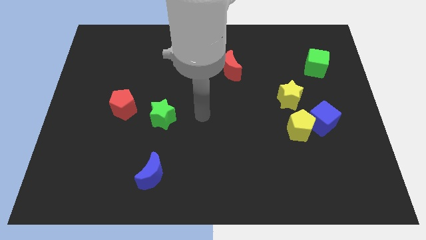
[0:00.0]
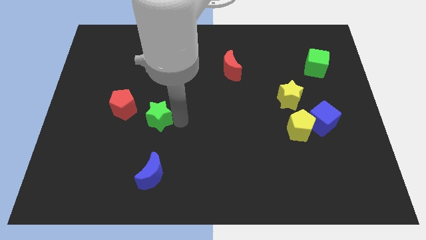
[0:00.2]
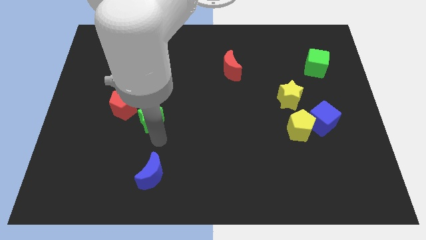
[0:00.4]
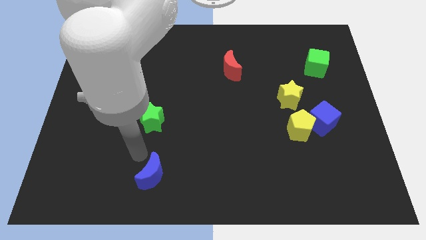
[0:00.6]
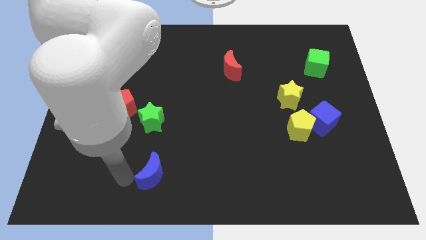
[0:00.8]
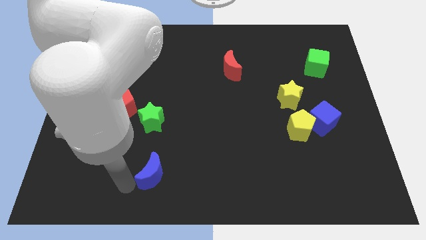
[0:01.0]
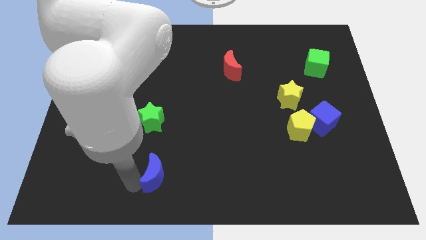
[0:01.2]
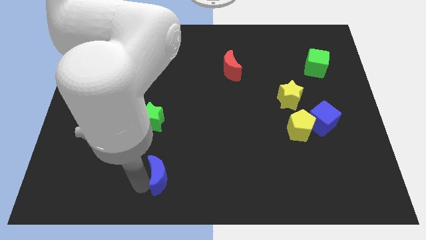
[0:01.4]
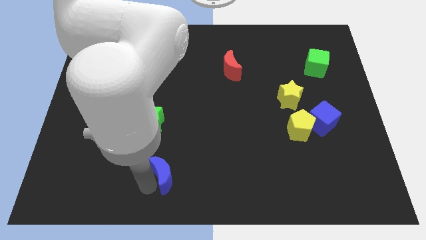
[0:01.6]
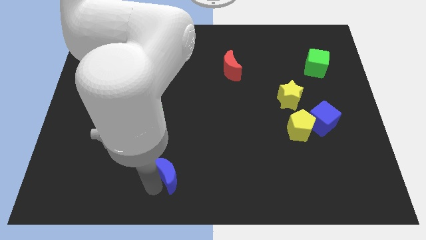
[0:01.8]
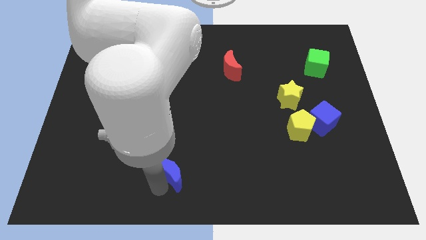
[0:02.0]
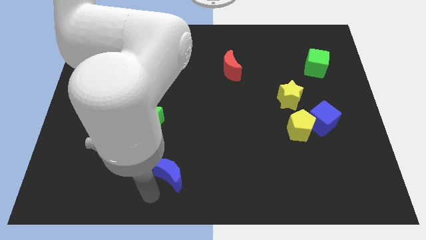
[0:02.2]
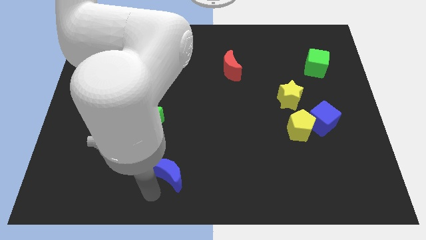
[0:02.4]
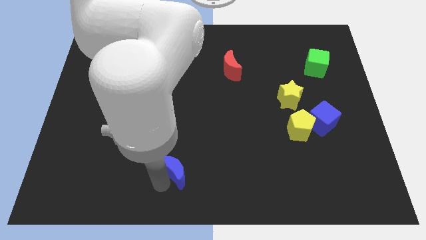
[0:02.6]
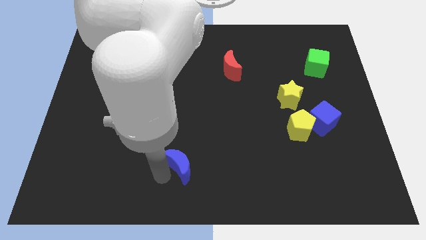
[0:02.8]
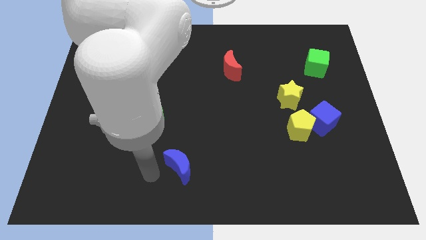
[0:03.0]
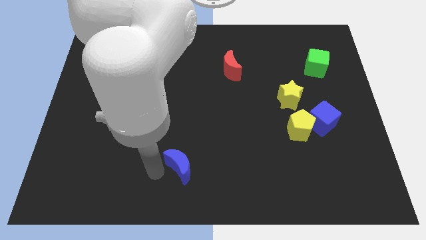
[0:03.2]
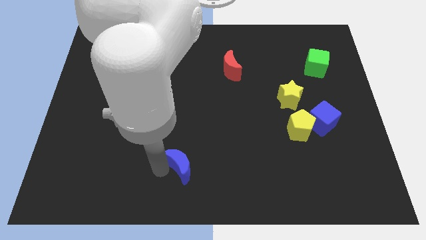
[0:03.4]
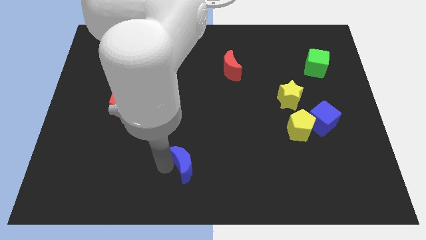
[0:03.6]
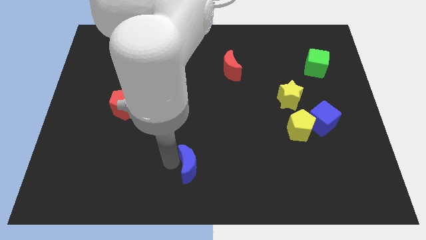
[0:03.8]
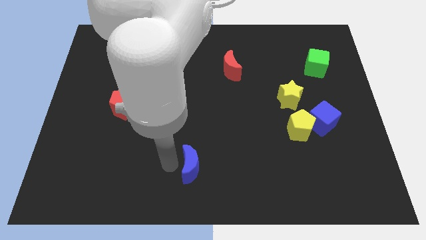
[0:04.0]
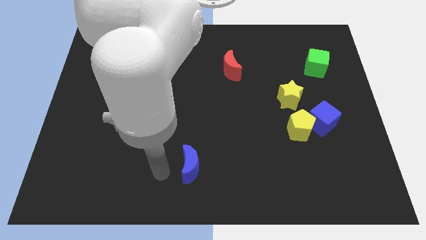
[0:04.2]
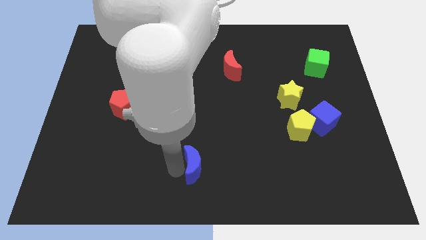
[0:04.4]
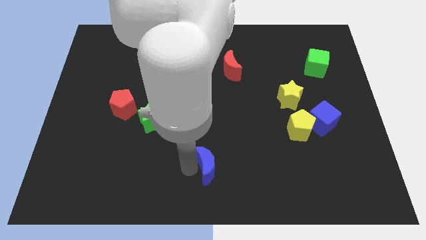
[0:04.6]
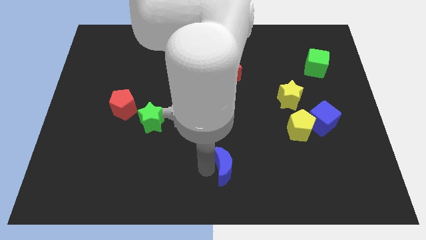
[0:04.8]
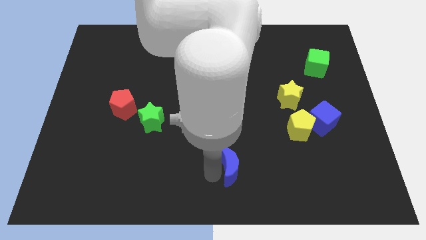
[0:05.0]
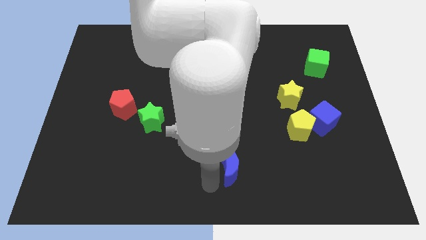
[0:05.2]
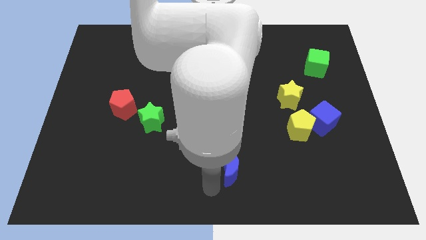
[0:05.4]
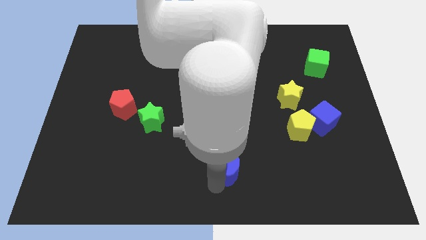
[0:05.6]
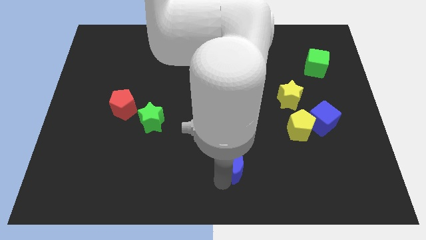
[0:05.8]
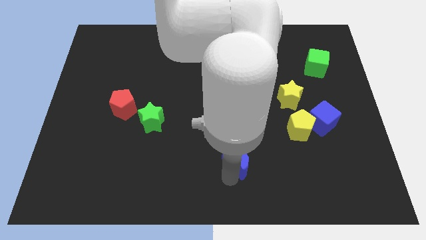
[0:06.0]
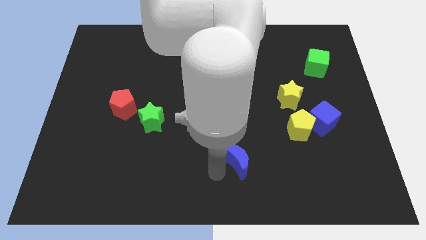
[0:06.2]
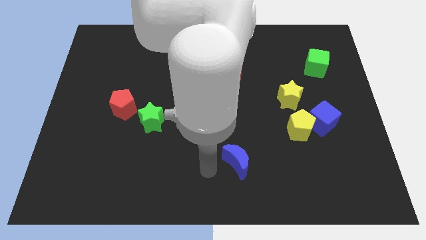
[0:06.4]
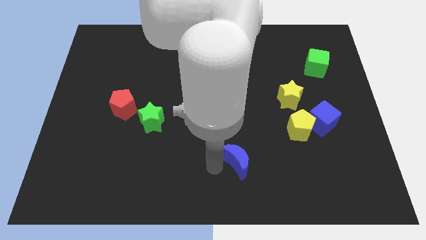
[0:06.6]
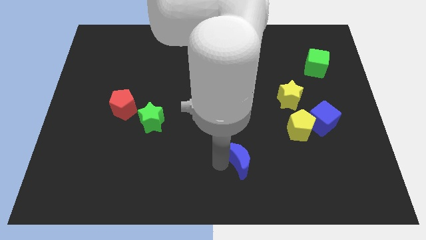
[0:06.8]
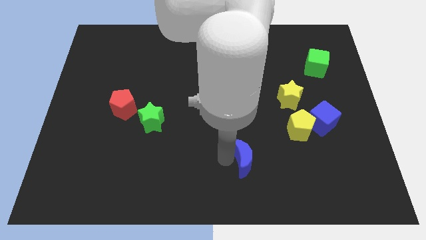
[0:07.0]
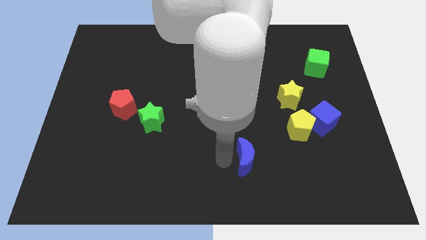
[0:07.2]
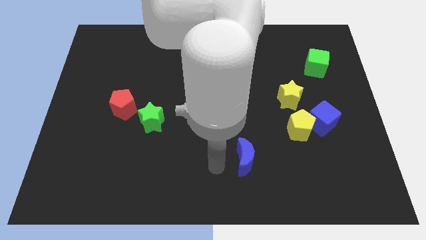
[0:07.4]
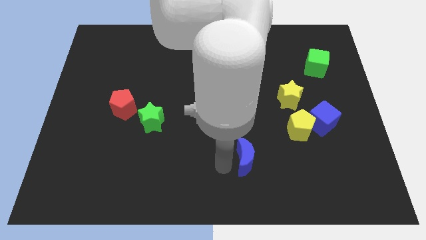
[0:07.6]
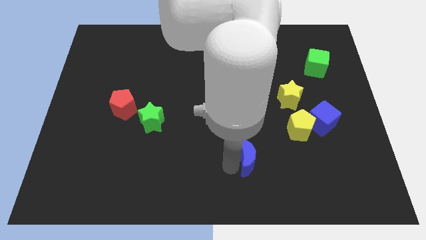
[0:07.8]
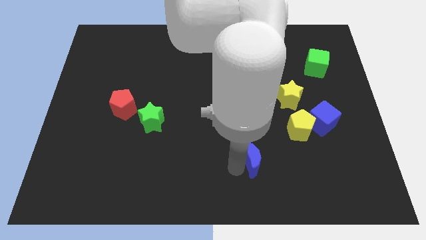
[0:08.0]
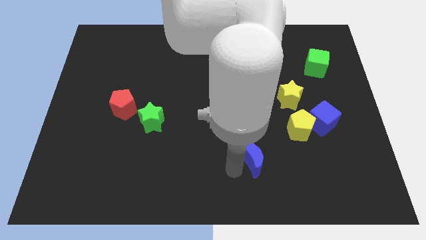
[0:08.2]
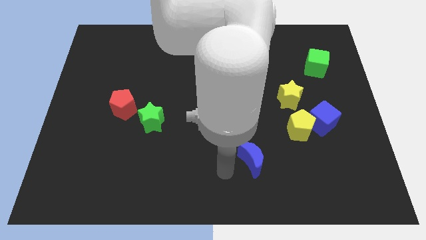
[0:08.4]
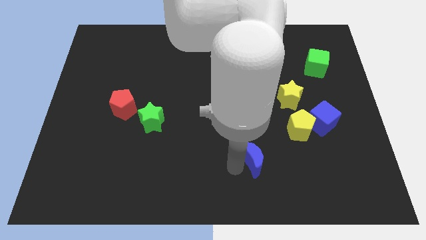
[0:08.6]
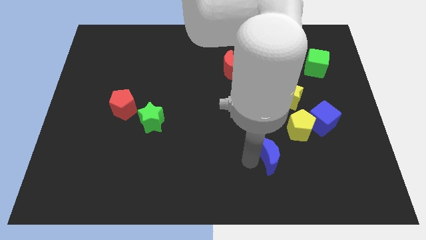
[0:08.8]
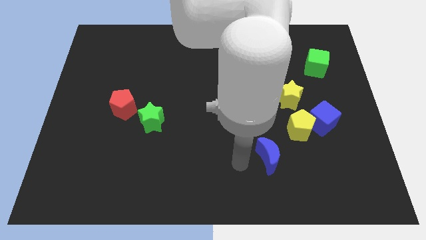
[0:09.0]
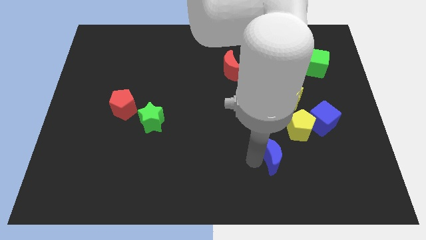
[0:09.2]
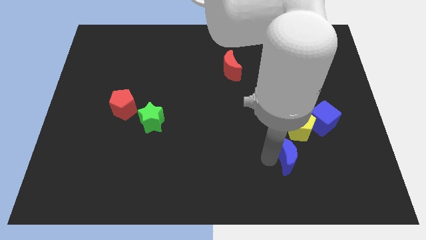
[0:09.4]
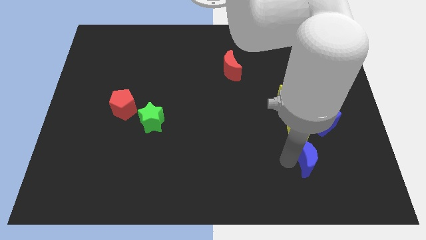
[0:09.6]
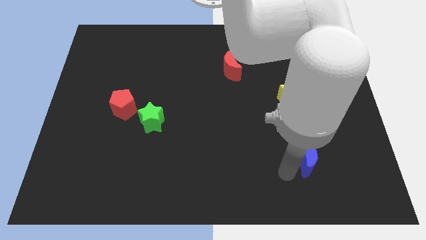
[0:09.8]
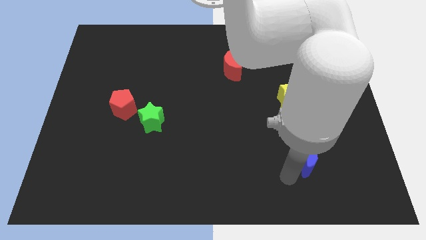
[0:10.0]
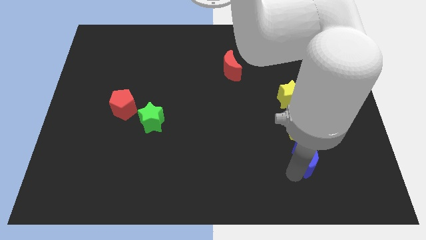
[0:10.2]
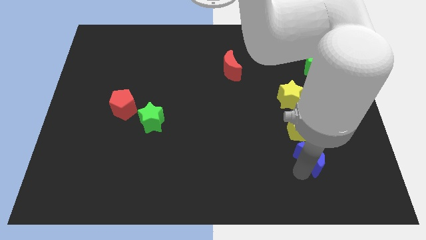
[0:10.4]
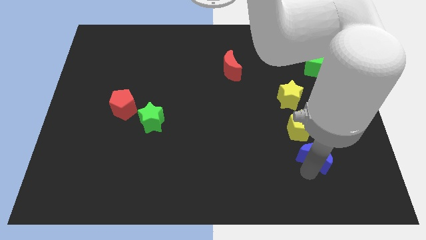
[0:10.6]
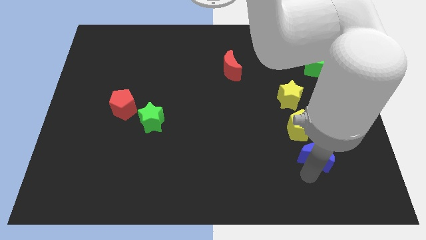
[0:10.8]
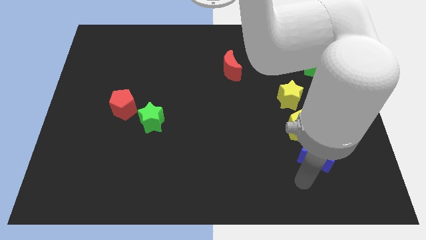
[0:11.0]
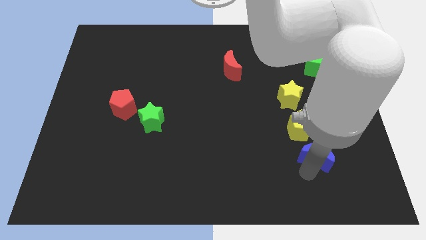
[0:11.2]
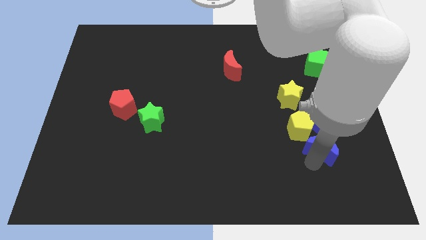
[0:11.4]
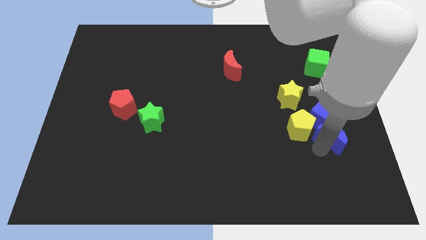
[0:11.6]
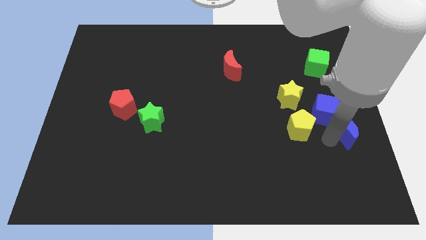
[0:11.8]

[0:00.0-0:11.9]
slide the blue moon to the right side of the board

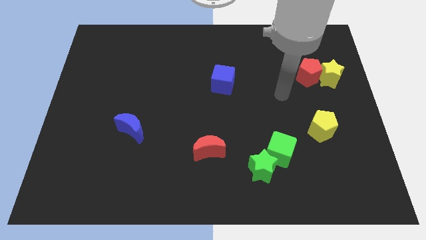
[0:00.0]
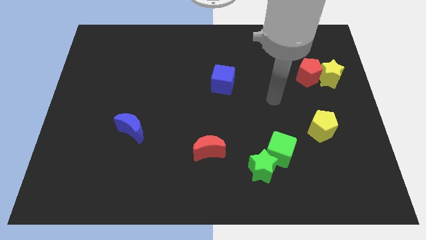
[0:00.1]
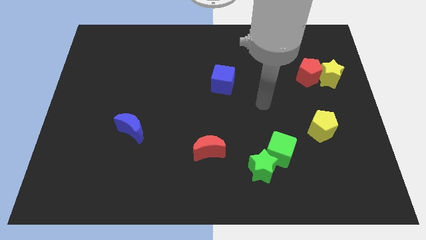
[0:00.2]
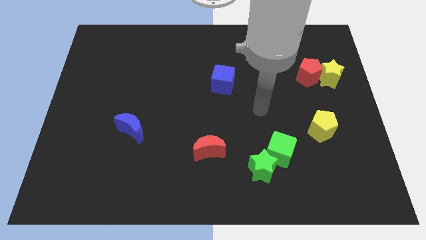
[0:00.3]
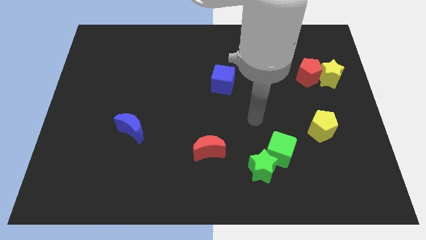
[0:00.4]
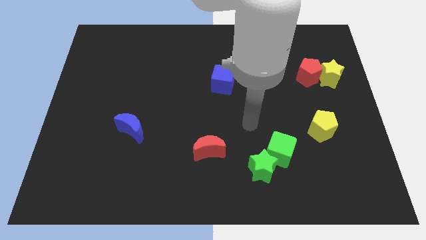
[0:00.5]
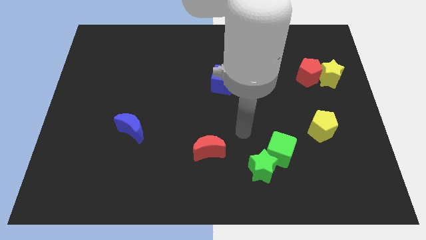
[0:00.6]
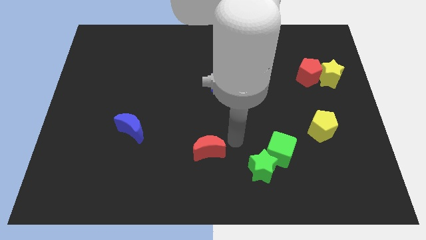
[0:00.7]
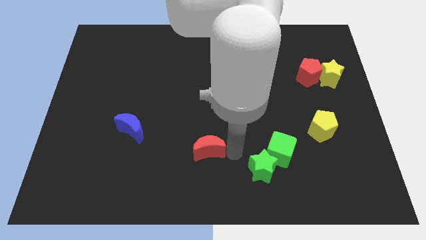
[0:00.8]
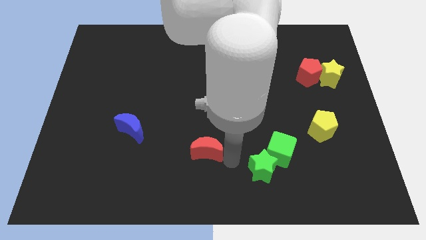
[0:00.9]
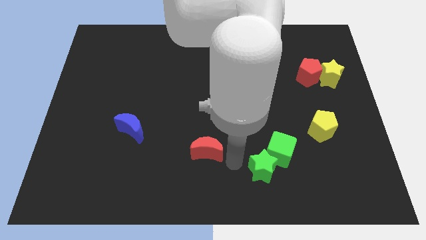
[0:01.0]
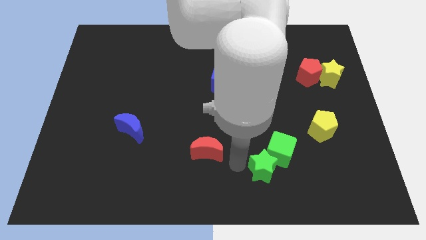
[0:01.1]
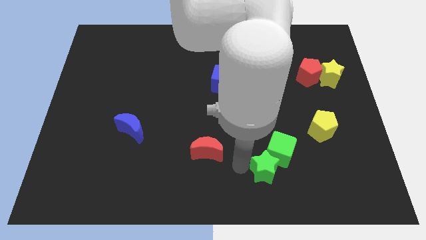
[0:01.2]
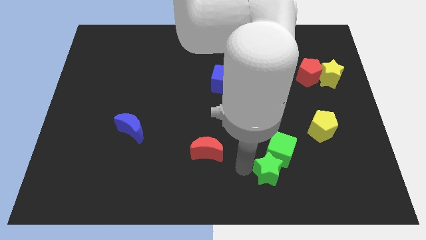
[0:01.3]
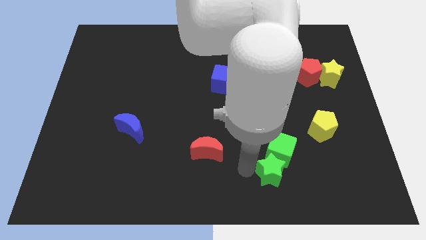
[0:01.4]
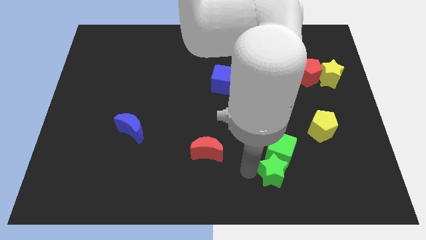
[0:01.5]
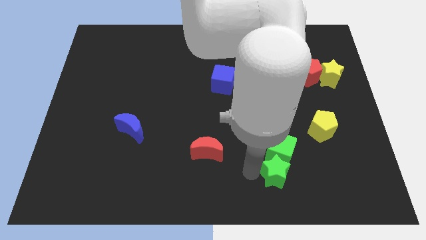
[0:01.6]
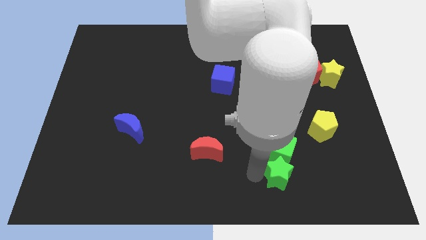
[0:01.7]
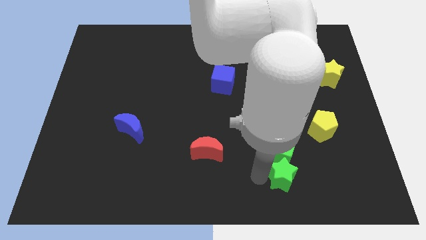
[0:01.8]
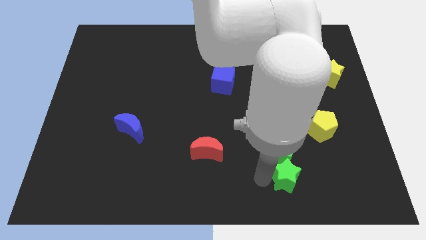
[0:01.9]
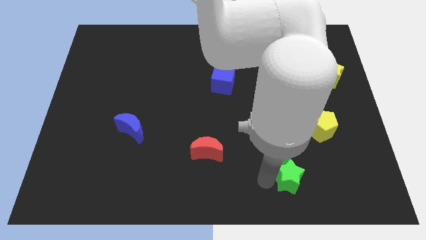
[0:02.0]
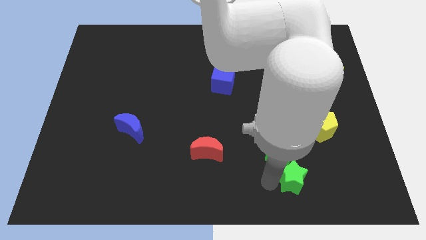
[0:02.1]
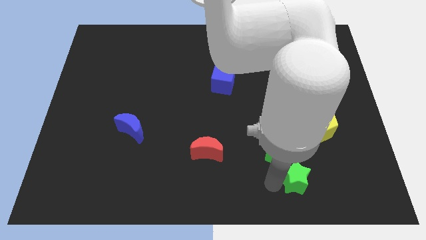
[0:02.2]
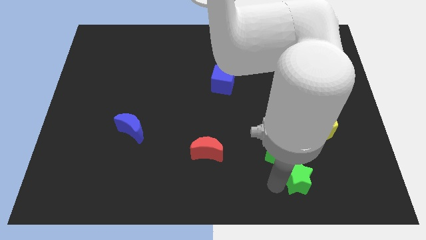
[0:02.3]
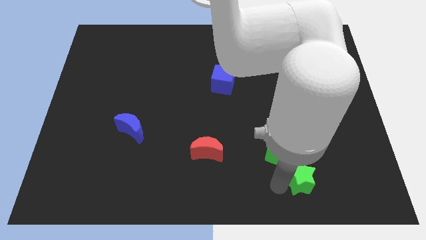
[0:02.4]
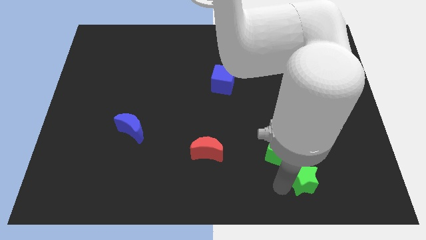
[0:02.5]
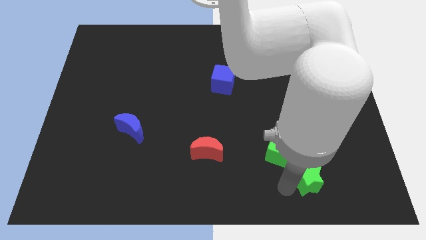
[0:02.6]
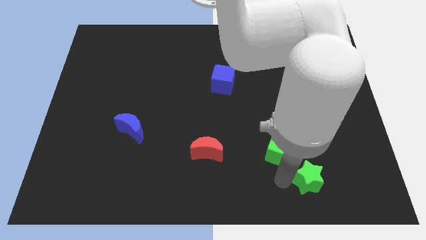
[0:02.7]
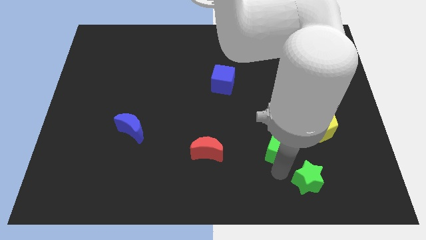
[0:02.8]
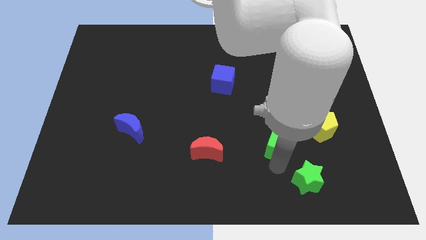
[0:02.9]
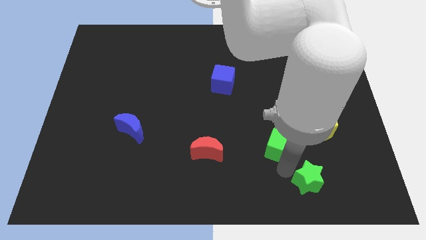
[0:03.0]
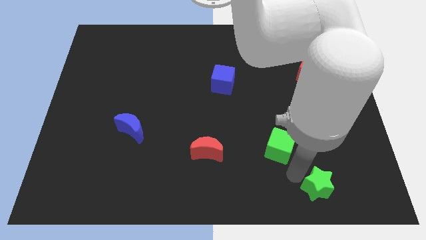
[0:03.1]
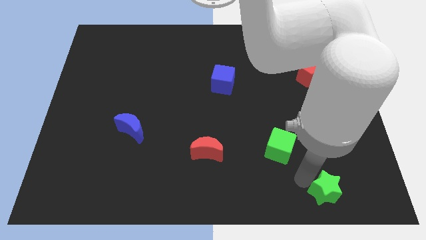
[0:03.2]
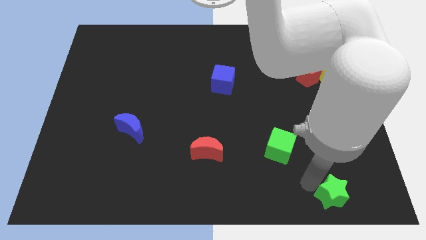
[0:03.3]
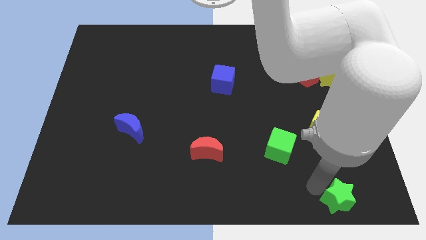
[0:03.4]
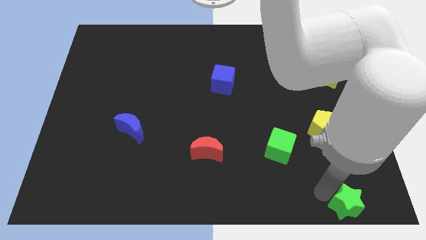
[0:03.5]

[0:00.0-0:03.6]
move the green star to the bottom right of the board
